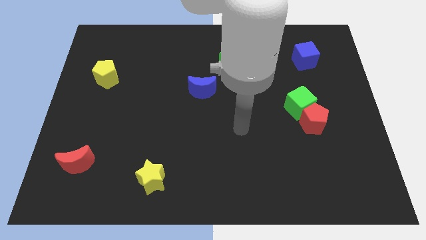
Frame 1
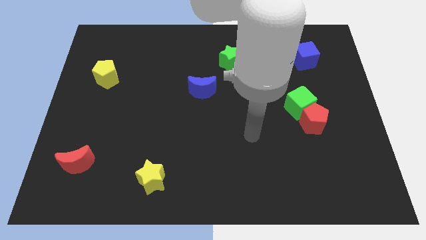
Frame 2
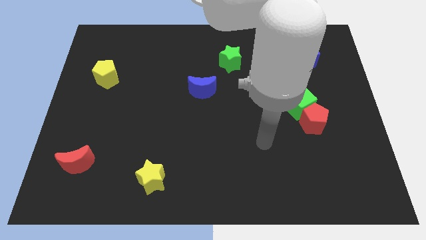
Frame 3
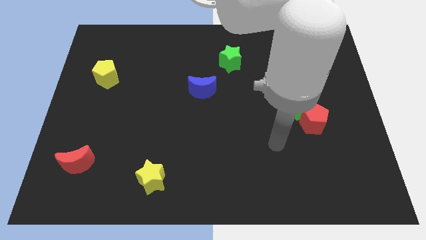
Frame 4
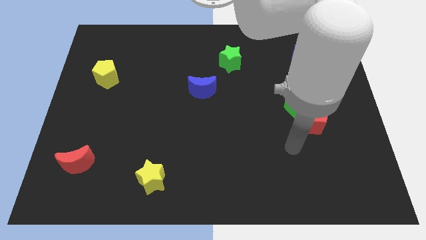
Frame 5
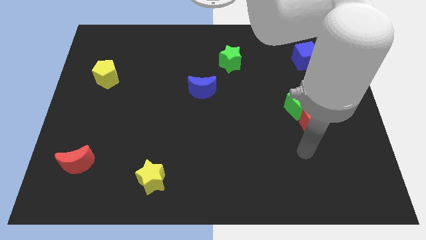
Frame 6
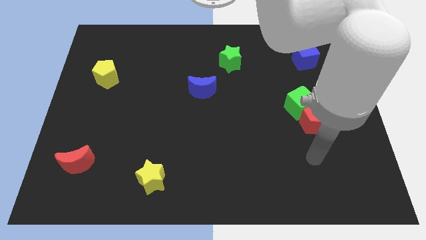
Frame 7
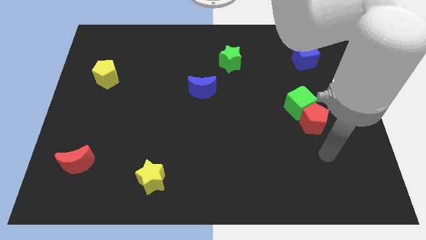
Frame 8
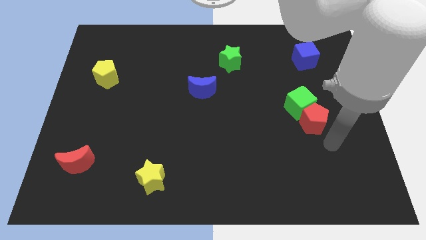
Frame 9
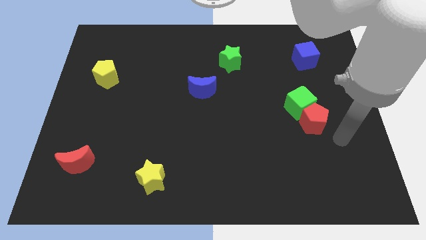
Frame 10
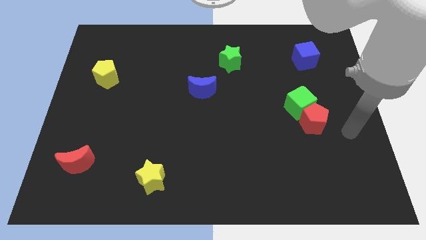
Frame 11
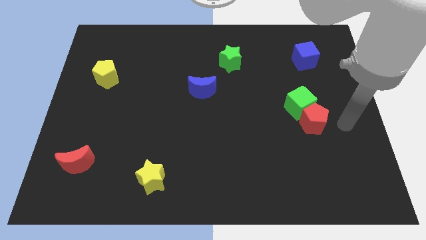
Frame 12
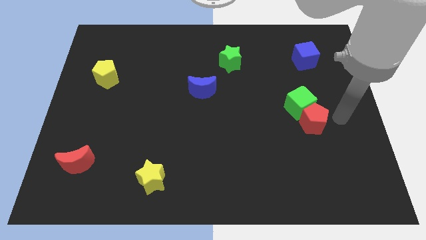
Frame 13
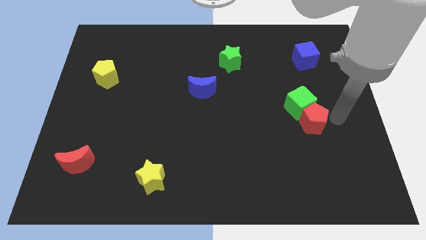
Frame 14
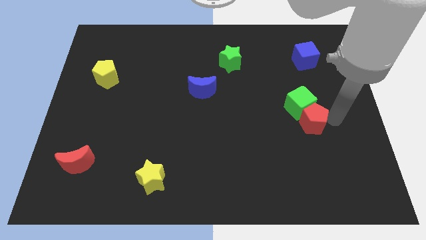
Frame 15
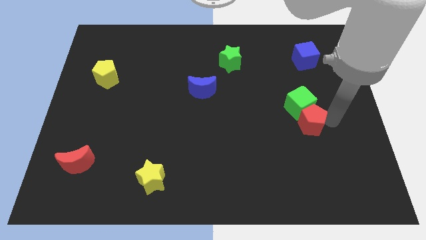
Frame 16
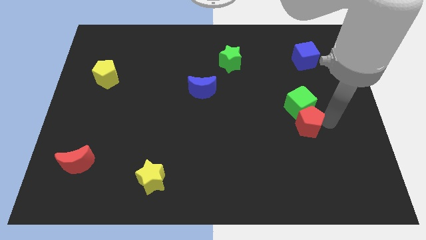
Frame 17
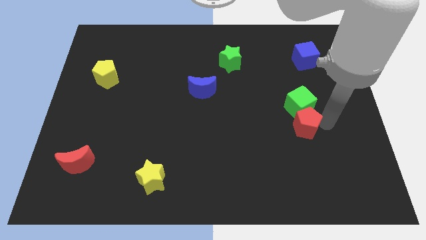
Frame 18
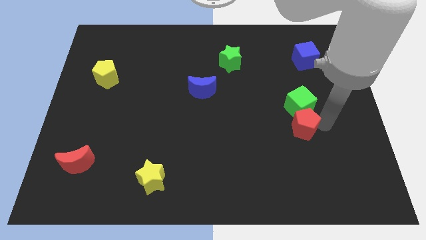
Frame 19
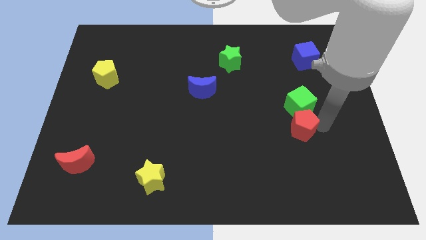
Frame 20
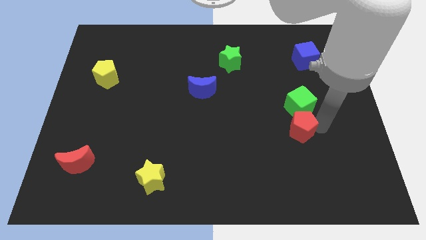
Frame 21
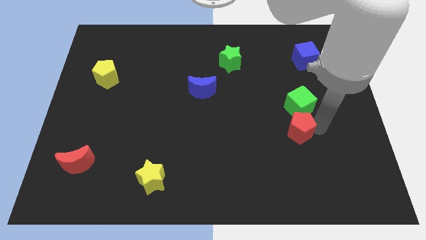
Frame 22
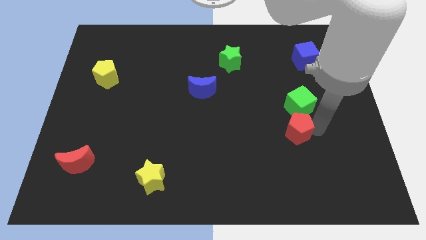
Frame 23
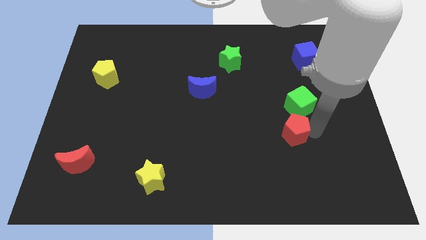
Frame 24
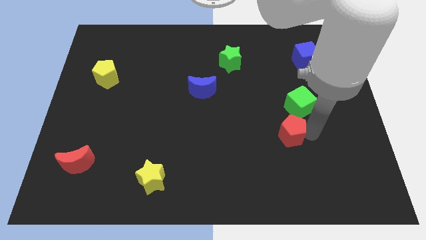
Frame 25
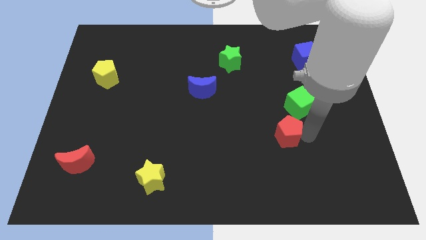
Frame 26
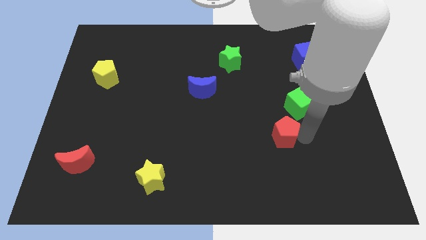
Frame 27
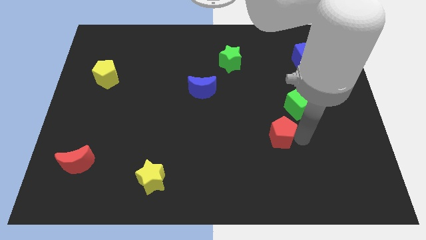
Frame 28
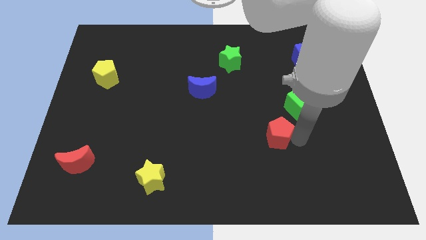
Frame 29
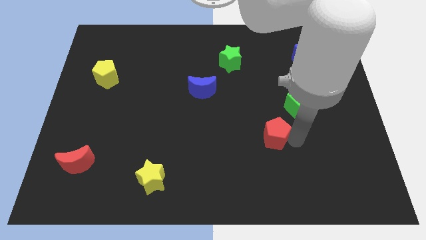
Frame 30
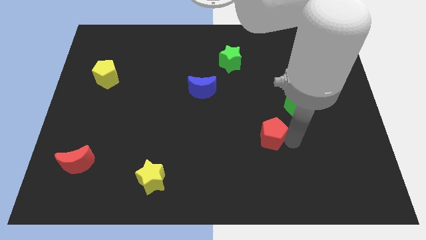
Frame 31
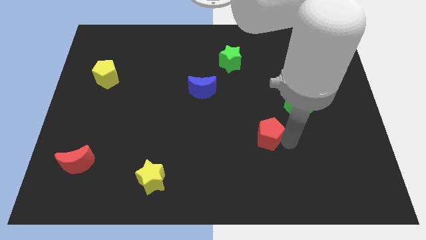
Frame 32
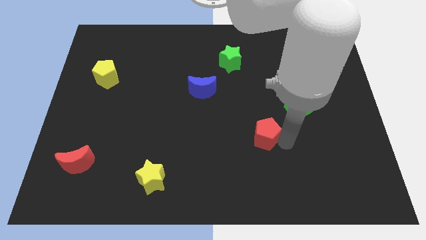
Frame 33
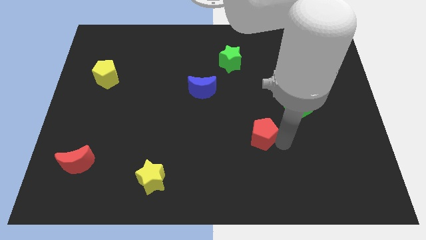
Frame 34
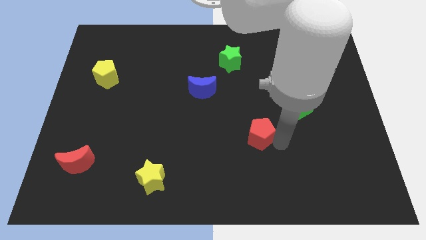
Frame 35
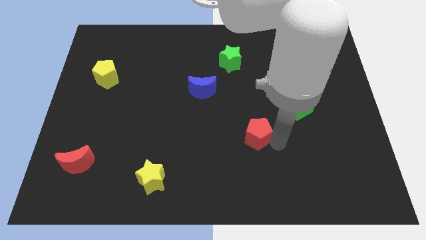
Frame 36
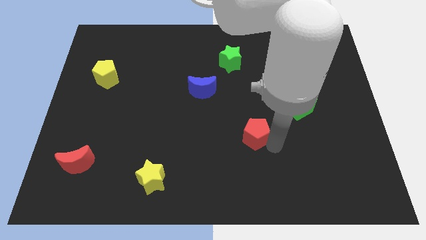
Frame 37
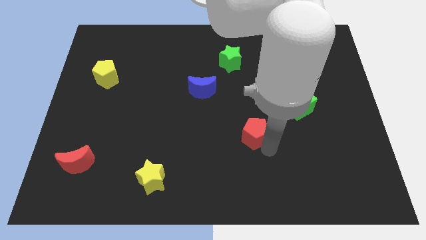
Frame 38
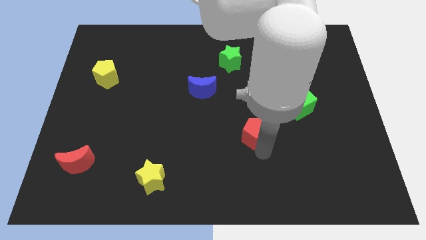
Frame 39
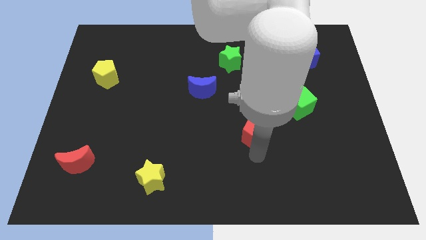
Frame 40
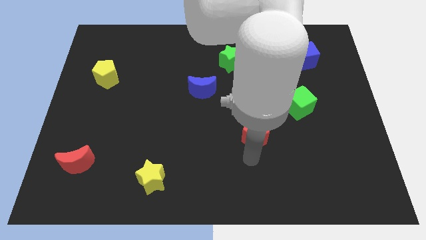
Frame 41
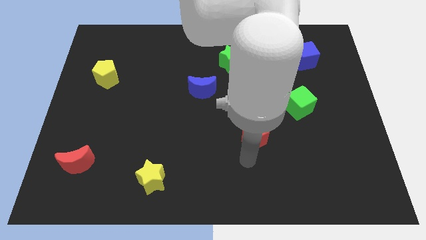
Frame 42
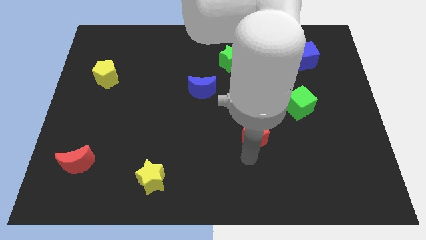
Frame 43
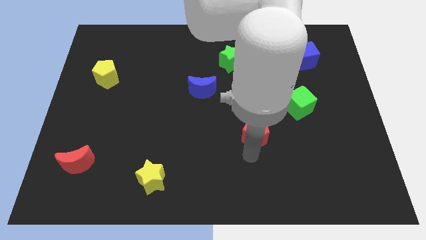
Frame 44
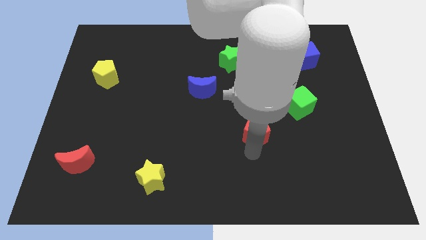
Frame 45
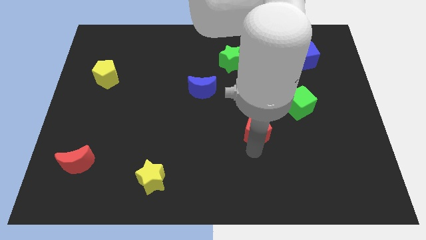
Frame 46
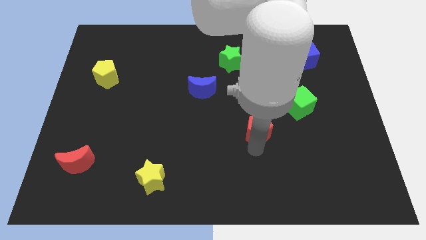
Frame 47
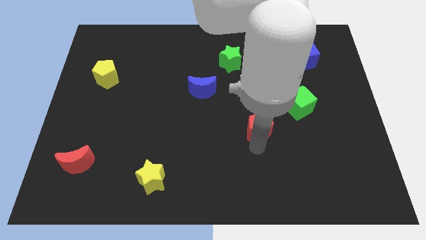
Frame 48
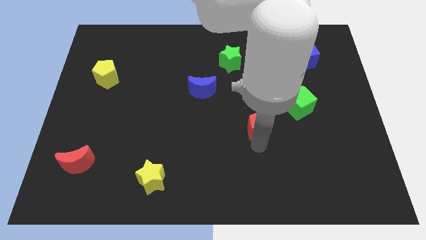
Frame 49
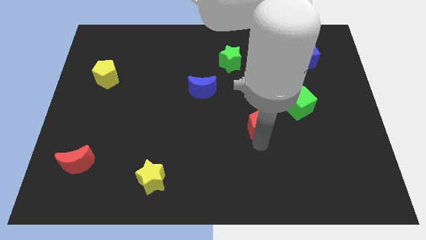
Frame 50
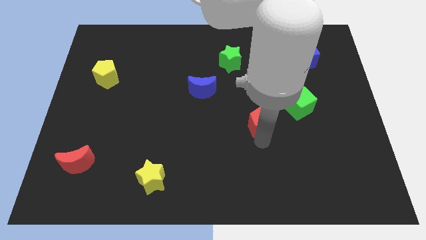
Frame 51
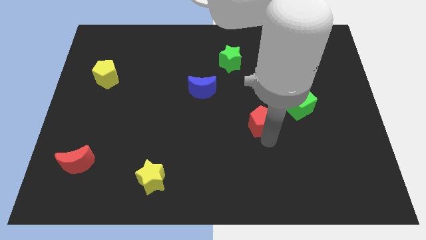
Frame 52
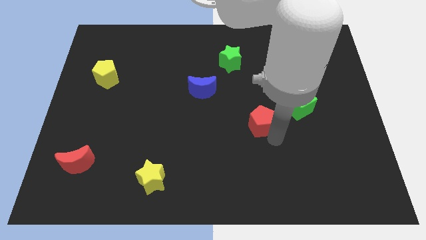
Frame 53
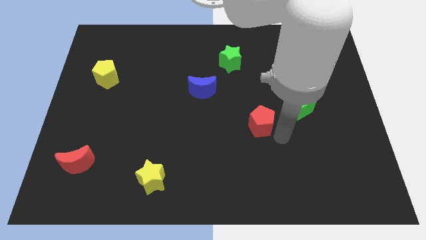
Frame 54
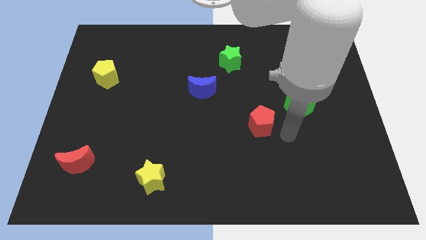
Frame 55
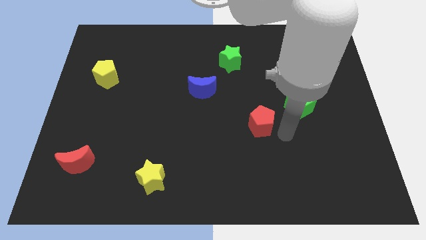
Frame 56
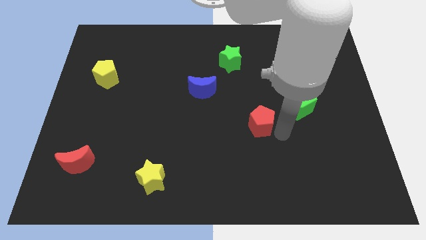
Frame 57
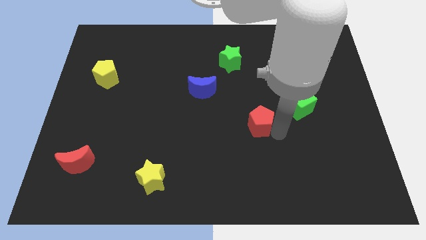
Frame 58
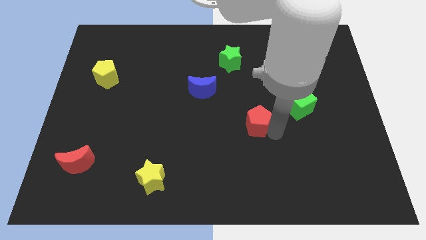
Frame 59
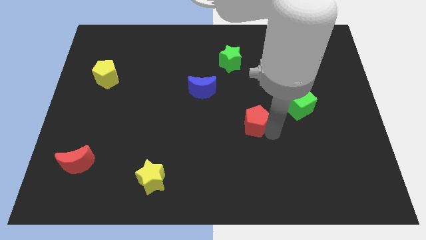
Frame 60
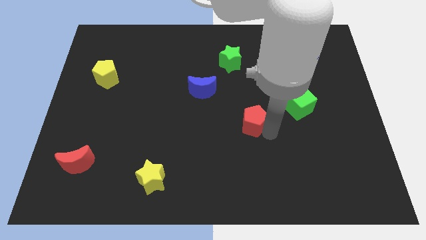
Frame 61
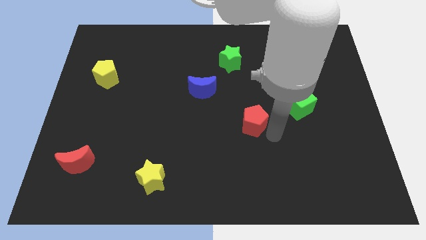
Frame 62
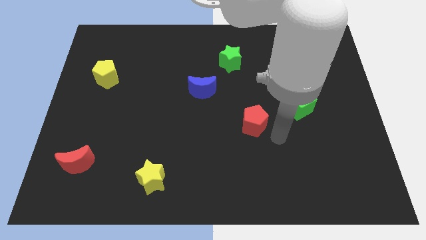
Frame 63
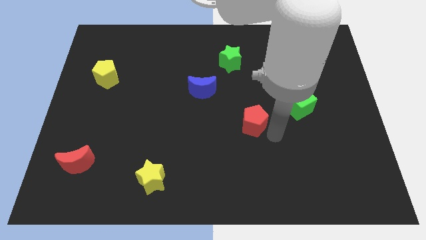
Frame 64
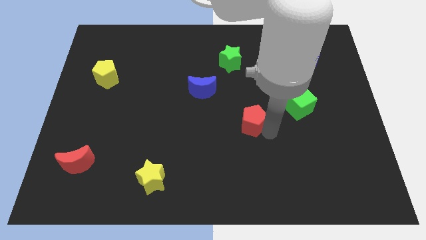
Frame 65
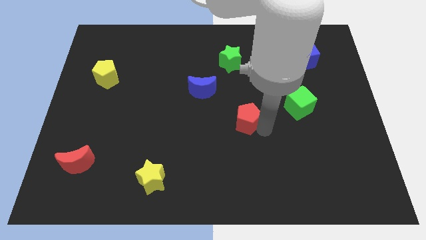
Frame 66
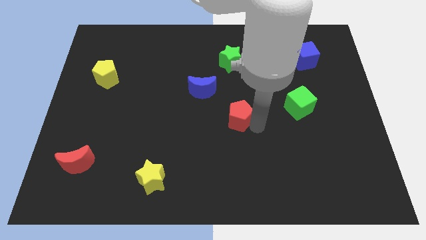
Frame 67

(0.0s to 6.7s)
push the red pentagon to the bottom right side of the blue moon
